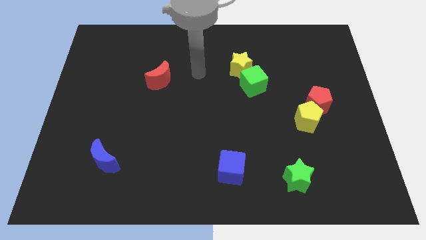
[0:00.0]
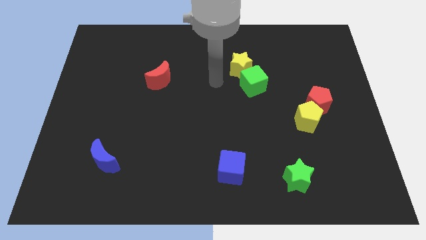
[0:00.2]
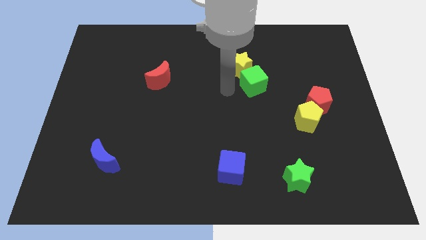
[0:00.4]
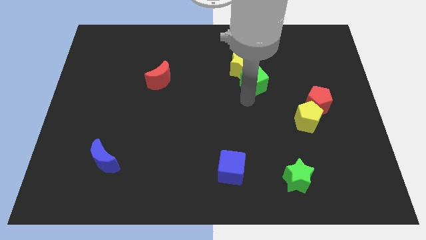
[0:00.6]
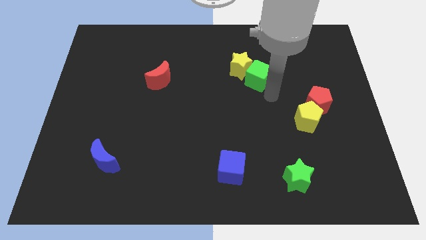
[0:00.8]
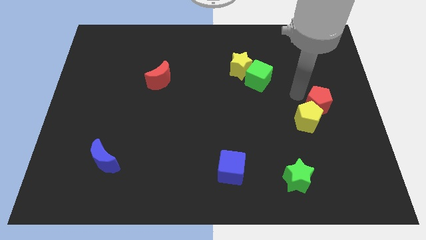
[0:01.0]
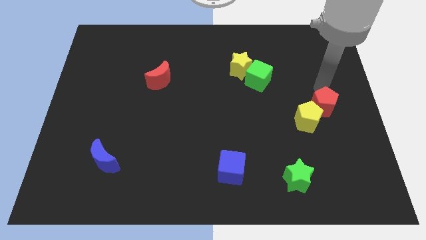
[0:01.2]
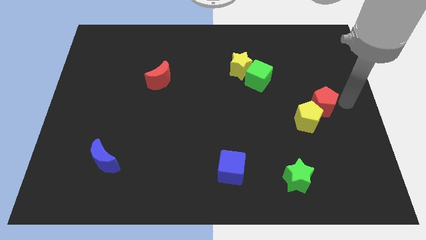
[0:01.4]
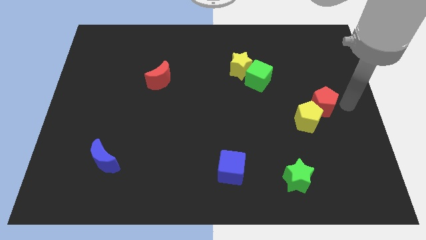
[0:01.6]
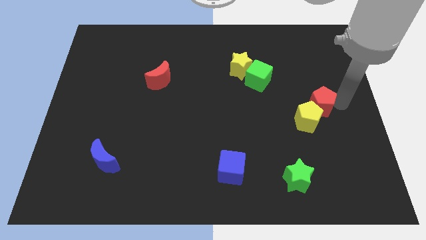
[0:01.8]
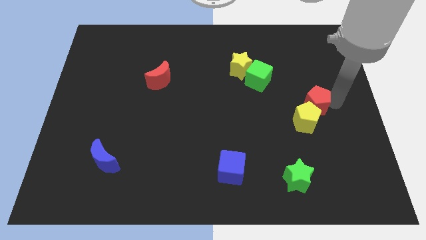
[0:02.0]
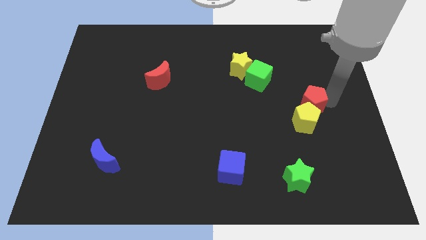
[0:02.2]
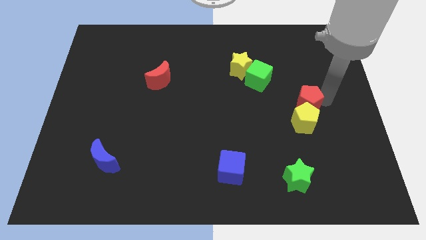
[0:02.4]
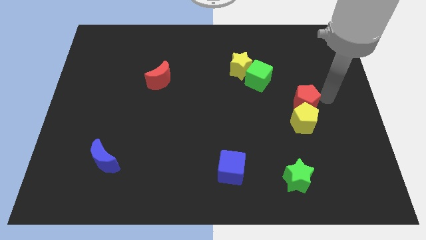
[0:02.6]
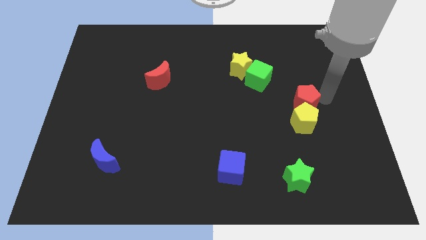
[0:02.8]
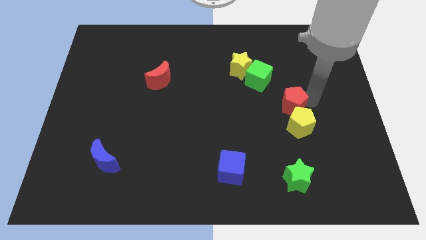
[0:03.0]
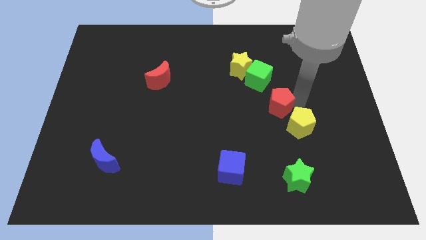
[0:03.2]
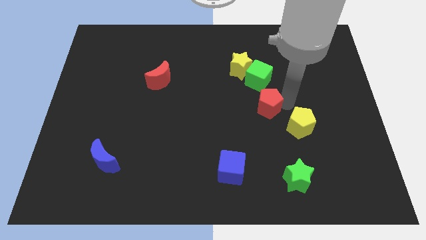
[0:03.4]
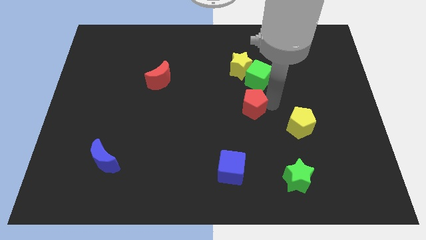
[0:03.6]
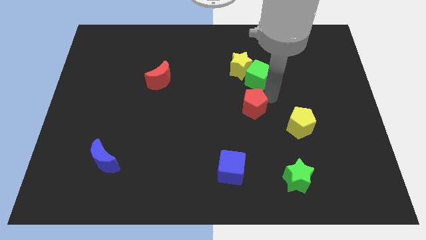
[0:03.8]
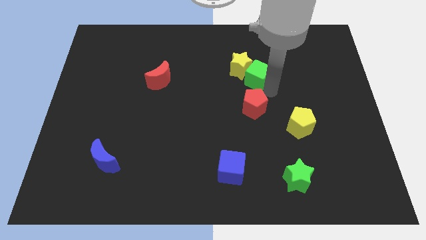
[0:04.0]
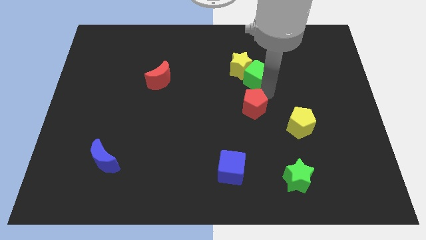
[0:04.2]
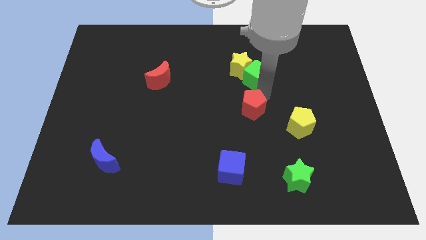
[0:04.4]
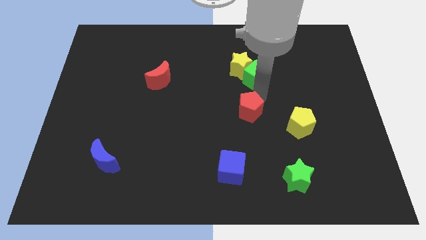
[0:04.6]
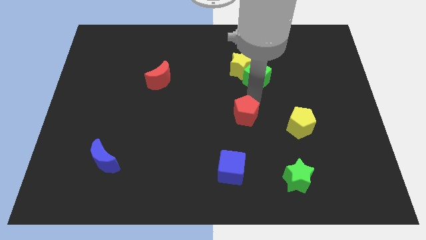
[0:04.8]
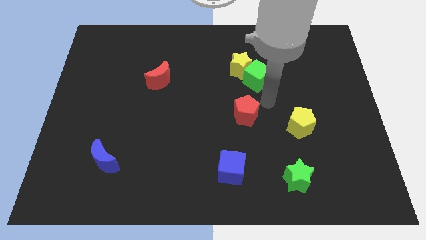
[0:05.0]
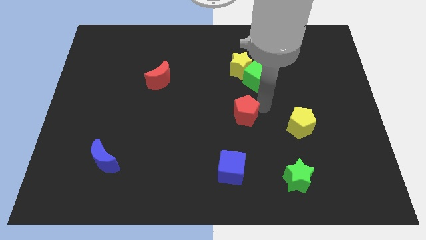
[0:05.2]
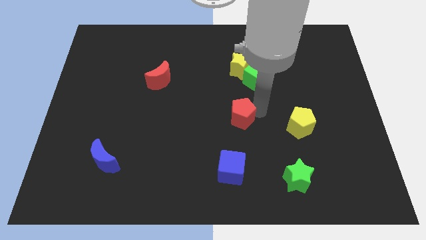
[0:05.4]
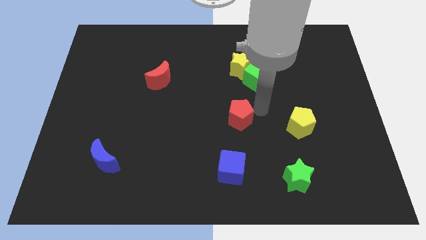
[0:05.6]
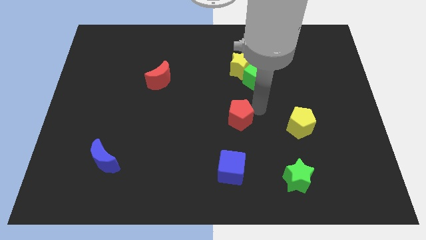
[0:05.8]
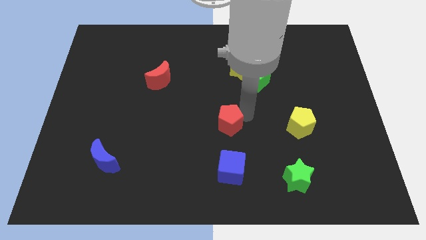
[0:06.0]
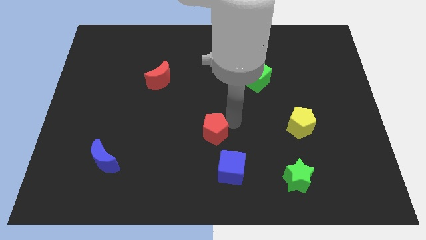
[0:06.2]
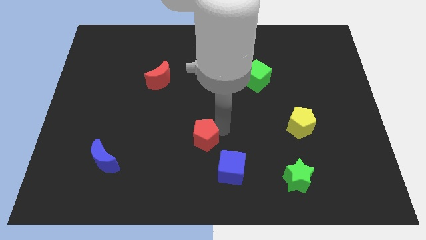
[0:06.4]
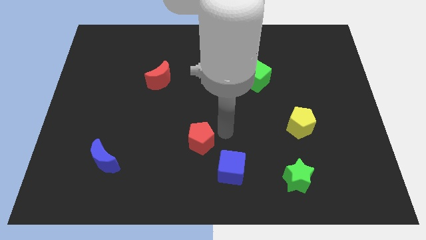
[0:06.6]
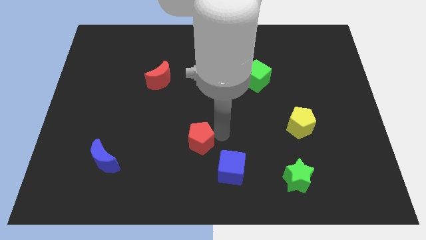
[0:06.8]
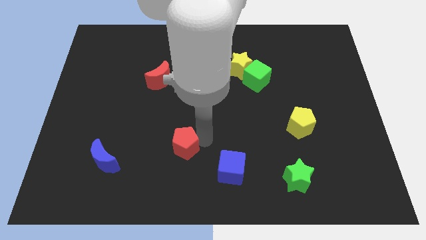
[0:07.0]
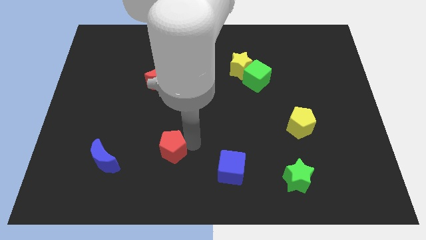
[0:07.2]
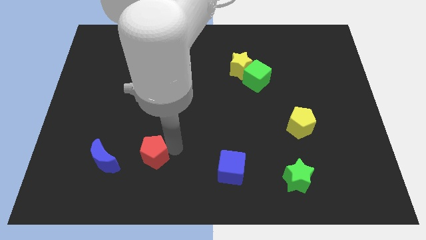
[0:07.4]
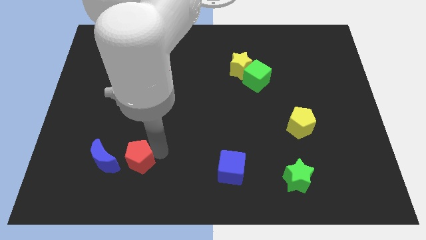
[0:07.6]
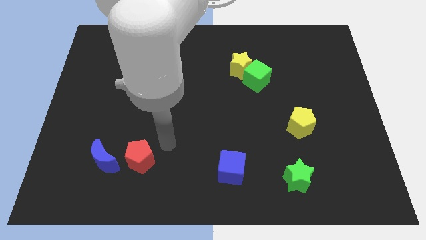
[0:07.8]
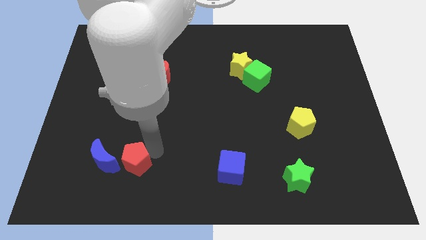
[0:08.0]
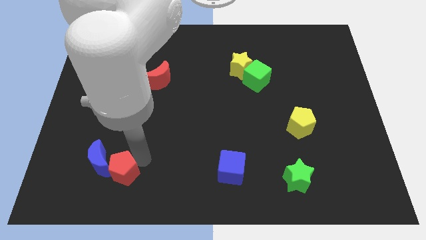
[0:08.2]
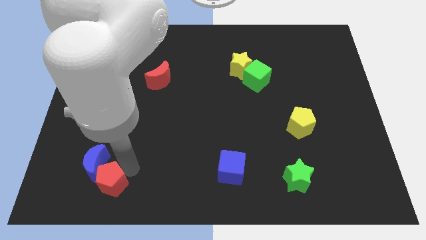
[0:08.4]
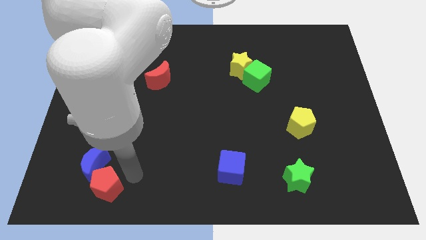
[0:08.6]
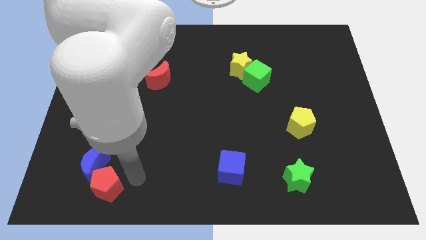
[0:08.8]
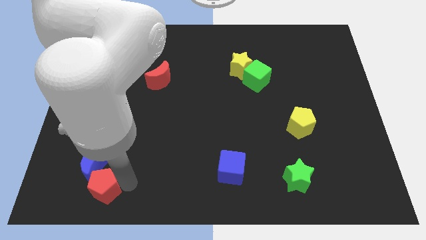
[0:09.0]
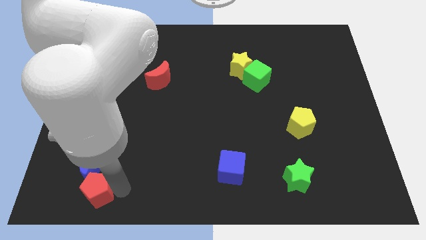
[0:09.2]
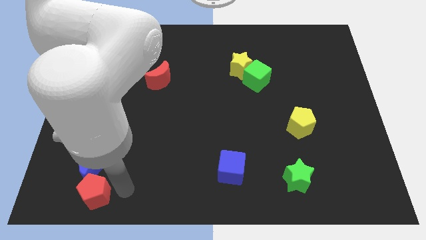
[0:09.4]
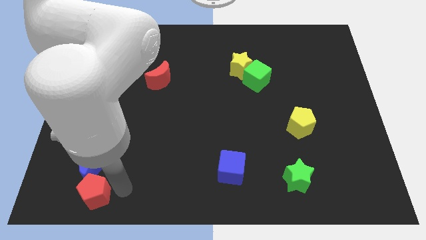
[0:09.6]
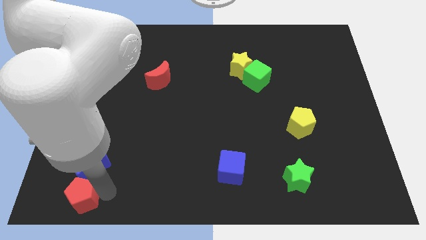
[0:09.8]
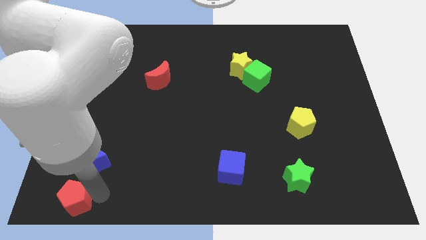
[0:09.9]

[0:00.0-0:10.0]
move the red pentagon to the bottom left corner

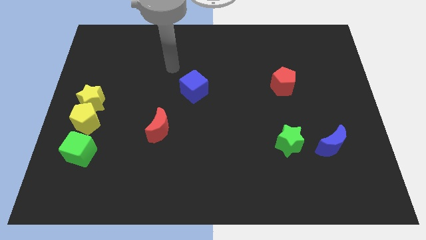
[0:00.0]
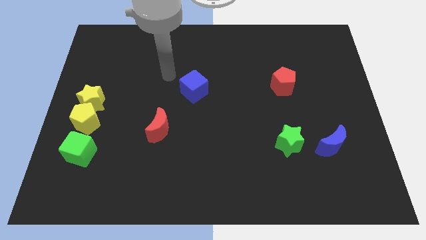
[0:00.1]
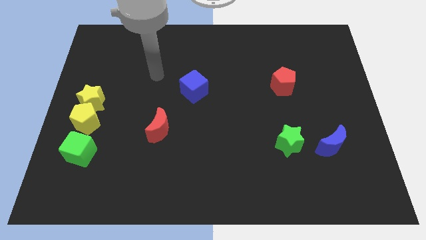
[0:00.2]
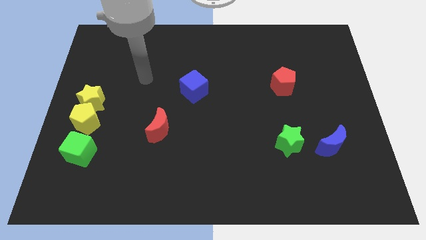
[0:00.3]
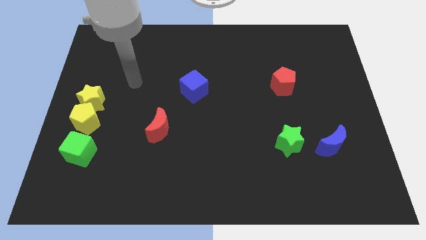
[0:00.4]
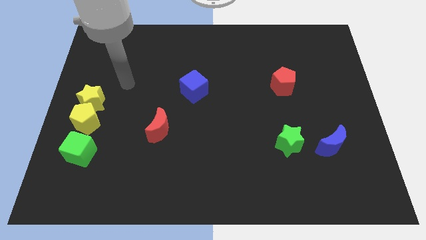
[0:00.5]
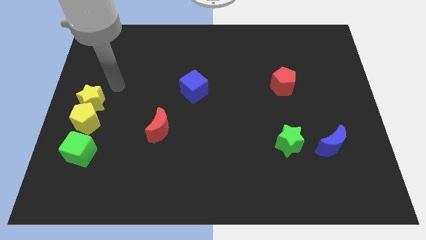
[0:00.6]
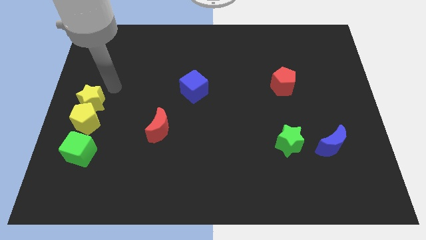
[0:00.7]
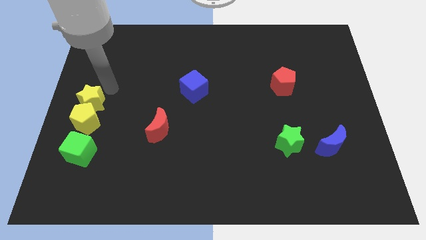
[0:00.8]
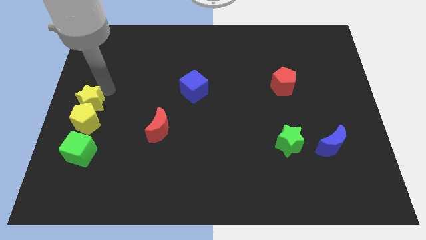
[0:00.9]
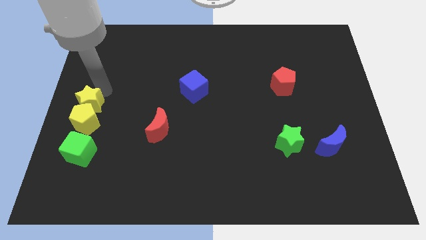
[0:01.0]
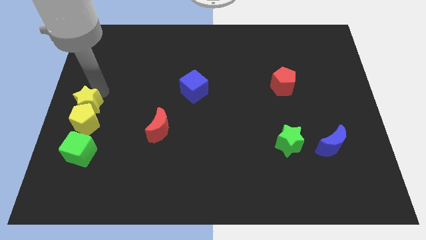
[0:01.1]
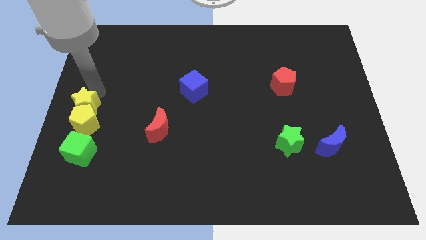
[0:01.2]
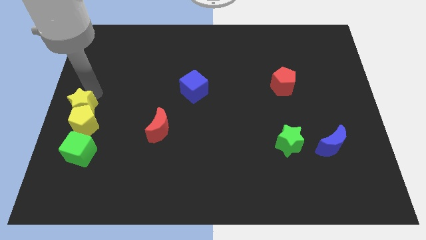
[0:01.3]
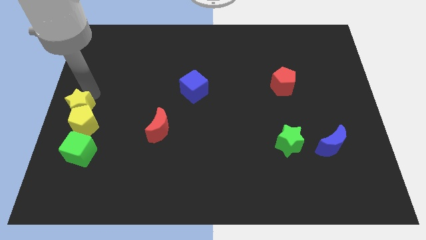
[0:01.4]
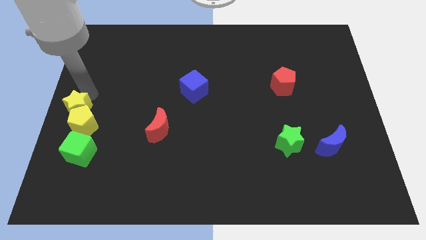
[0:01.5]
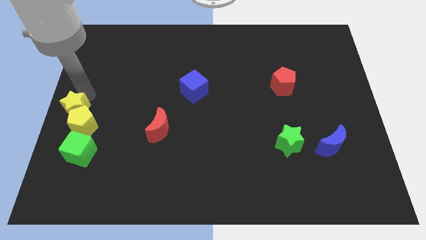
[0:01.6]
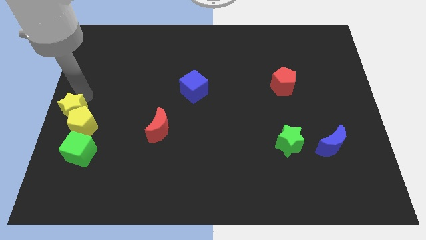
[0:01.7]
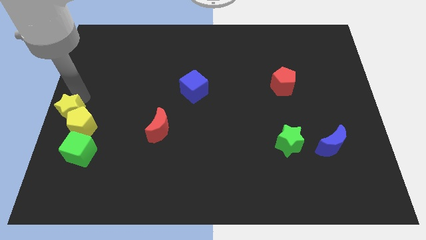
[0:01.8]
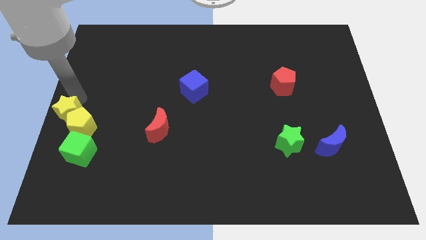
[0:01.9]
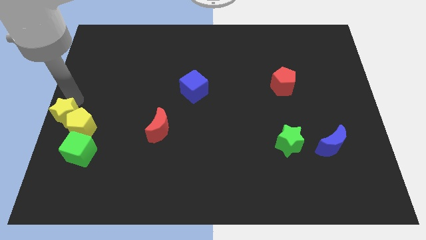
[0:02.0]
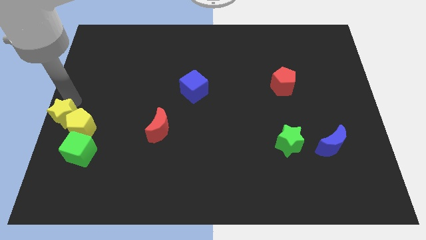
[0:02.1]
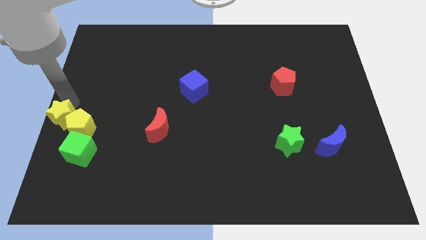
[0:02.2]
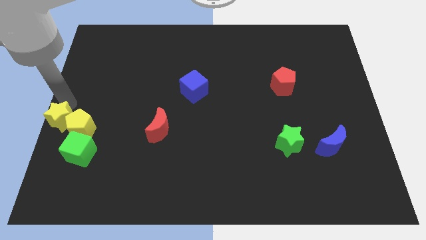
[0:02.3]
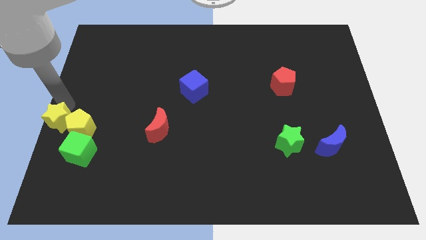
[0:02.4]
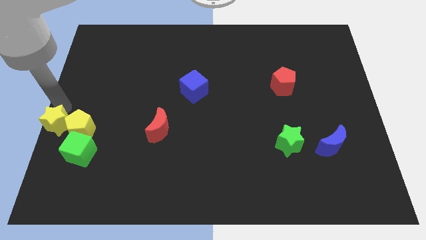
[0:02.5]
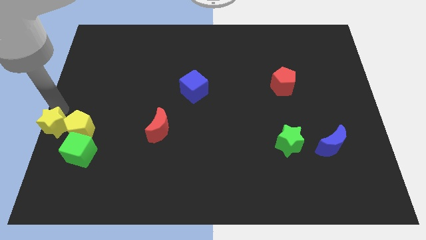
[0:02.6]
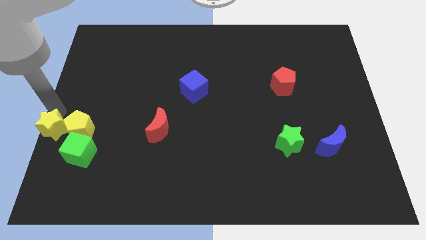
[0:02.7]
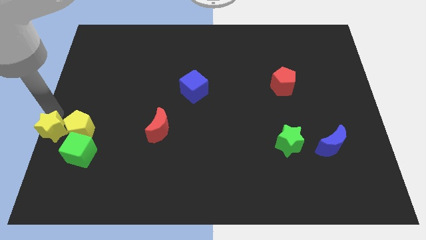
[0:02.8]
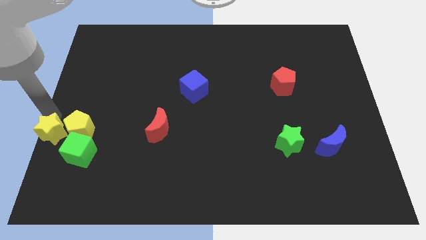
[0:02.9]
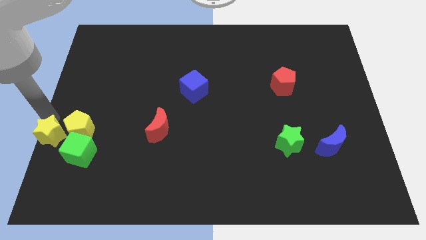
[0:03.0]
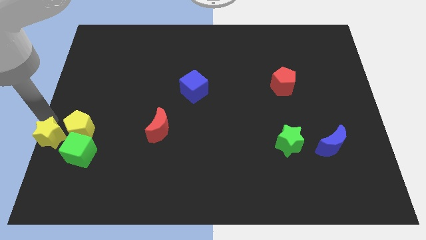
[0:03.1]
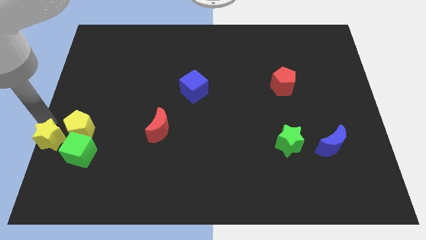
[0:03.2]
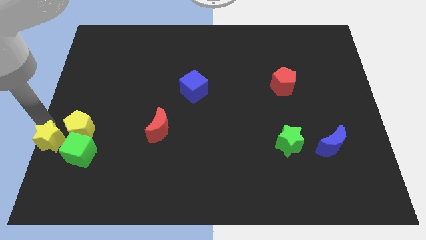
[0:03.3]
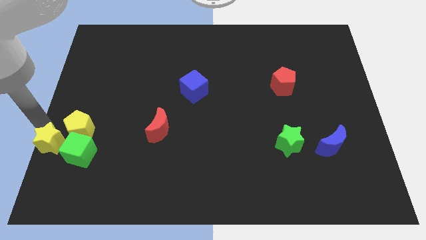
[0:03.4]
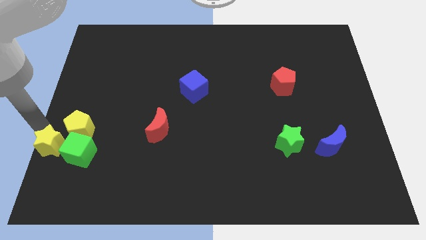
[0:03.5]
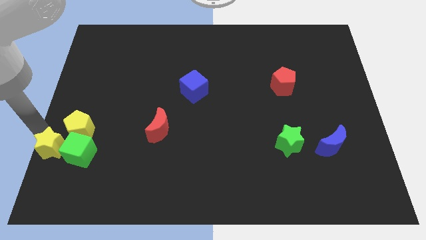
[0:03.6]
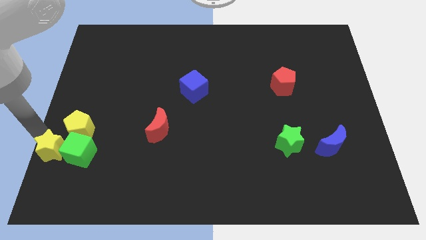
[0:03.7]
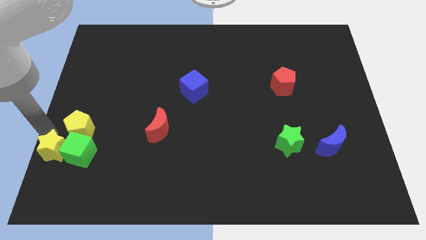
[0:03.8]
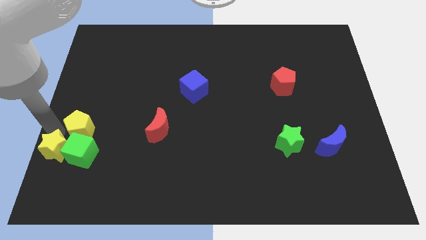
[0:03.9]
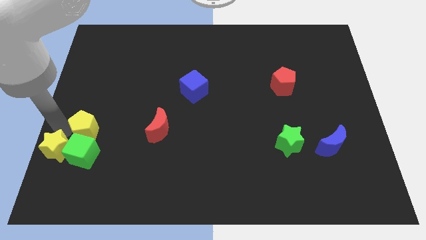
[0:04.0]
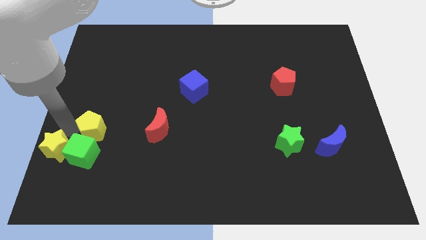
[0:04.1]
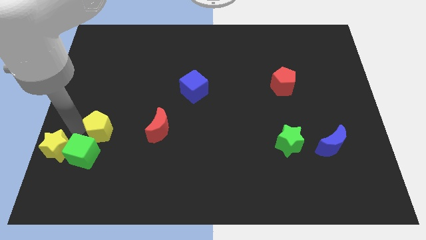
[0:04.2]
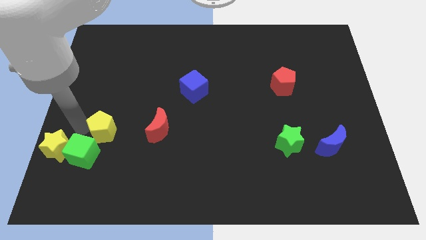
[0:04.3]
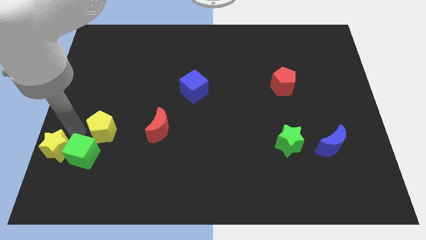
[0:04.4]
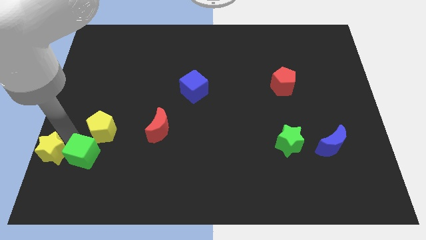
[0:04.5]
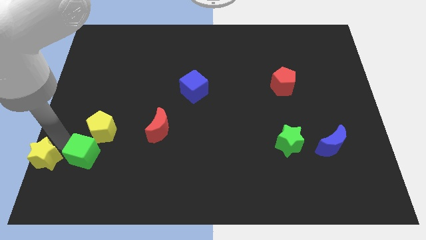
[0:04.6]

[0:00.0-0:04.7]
move the yellow star to the bottom left
